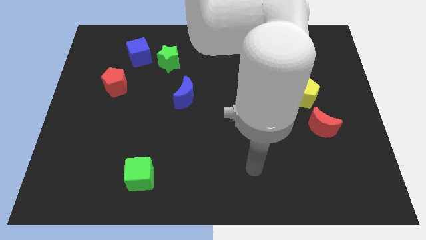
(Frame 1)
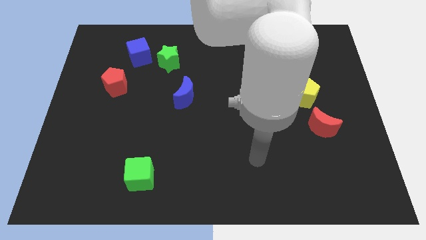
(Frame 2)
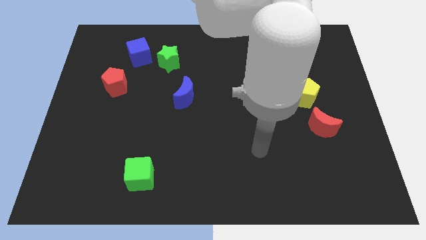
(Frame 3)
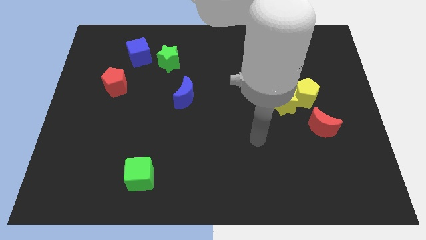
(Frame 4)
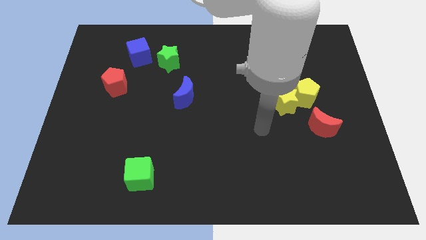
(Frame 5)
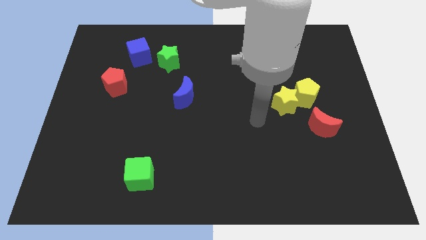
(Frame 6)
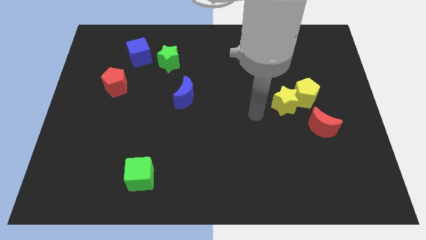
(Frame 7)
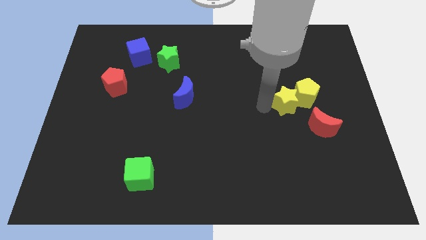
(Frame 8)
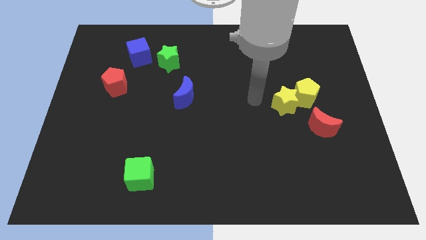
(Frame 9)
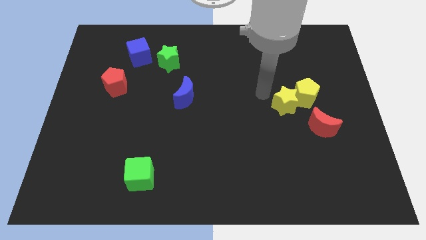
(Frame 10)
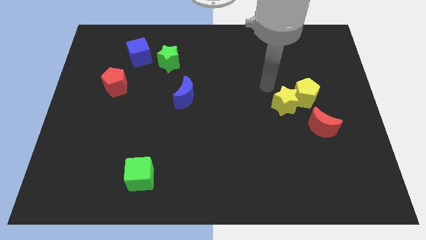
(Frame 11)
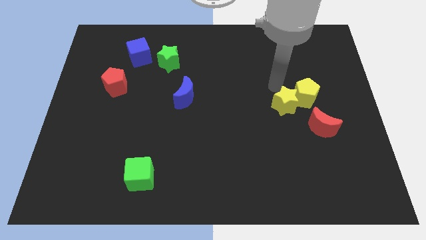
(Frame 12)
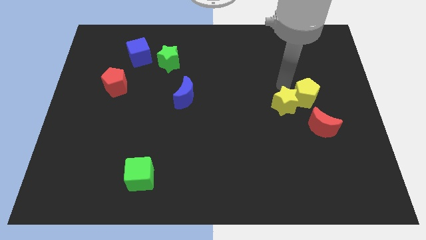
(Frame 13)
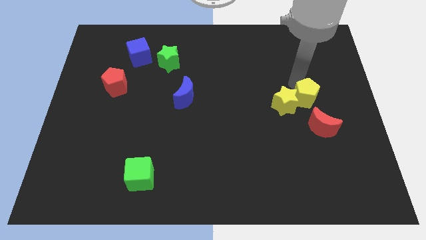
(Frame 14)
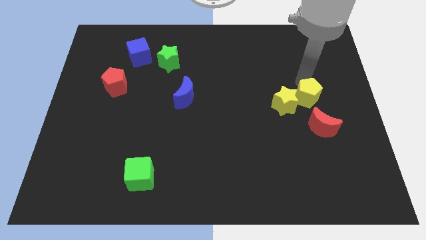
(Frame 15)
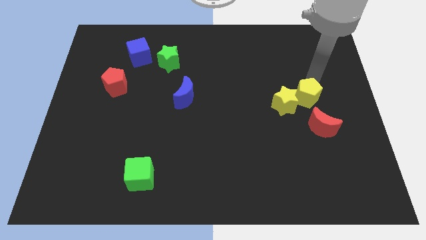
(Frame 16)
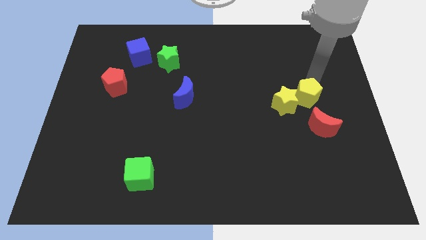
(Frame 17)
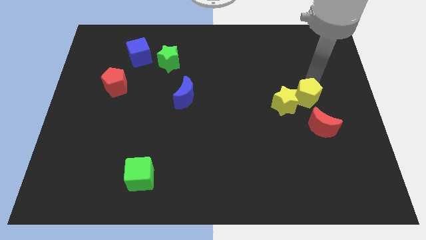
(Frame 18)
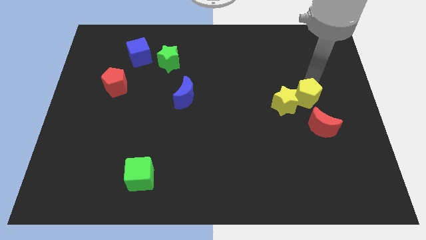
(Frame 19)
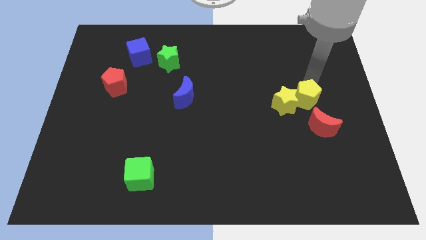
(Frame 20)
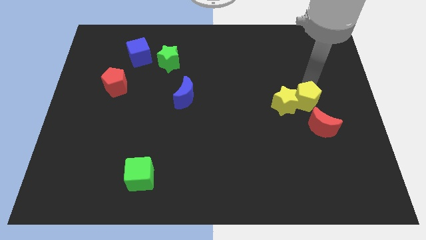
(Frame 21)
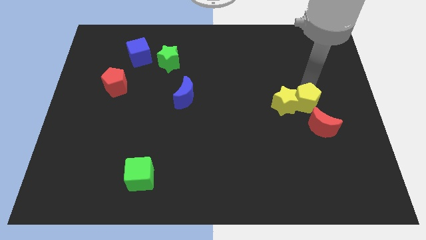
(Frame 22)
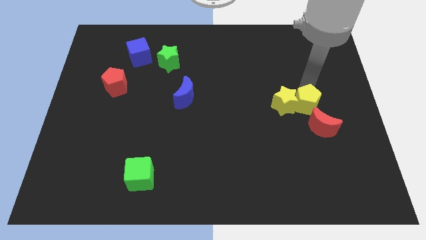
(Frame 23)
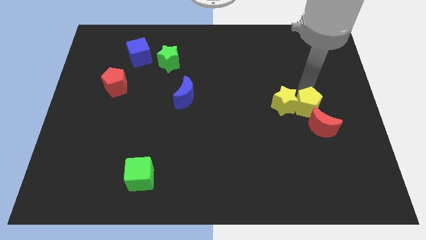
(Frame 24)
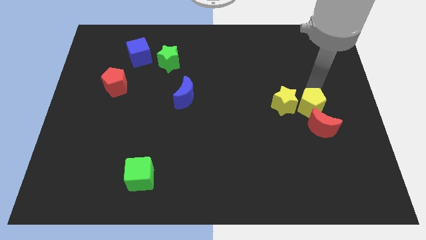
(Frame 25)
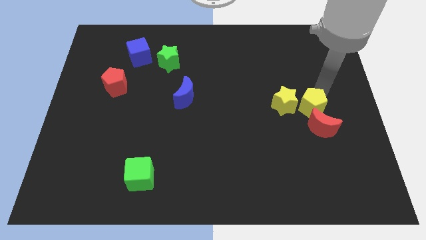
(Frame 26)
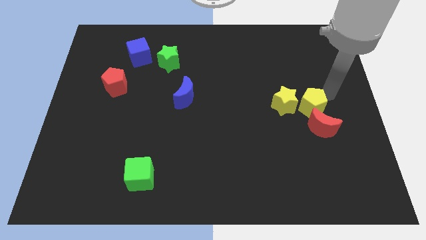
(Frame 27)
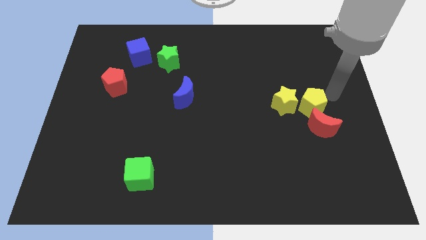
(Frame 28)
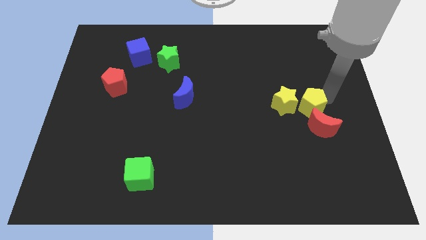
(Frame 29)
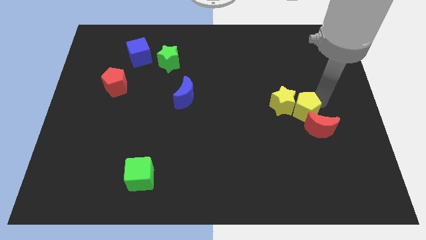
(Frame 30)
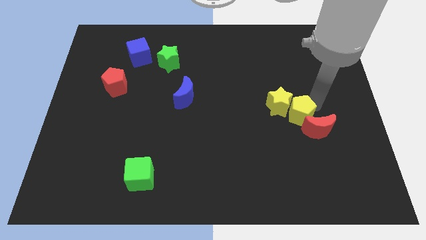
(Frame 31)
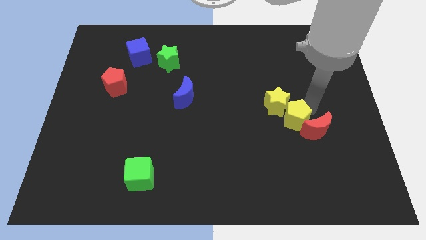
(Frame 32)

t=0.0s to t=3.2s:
slightly move the yellow pentagon downwards and then left

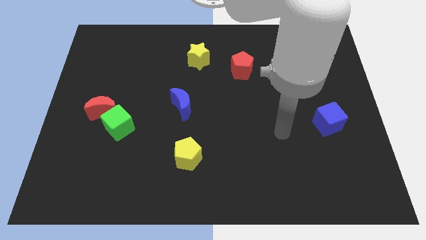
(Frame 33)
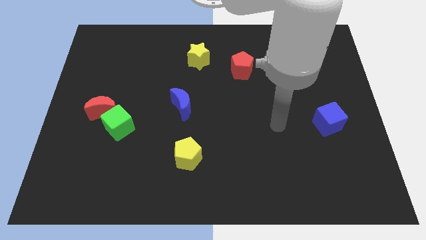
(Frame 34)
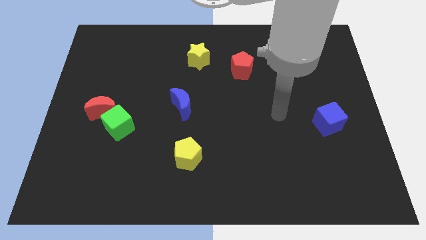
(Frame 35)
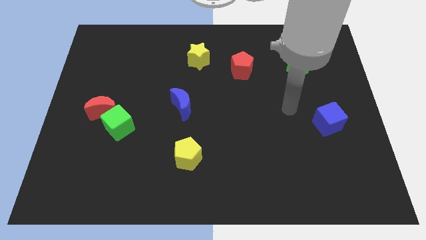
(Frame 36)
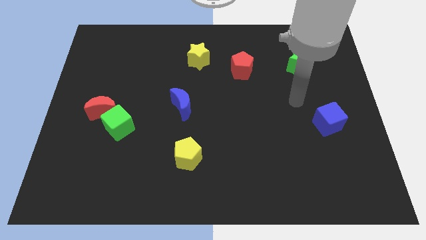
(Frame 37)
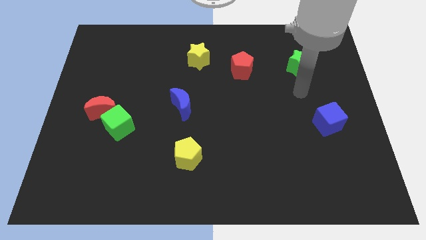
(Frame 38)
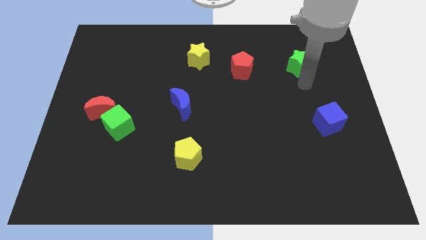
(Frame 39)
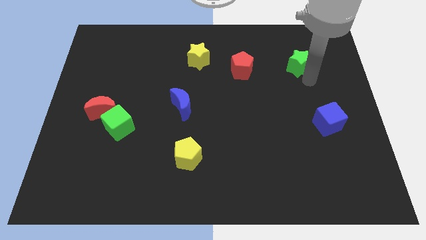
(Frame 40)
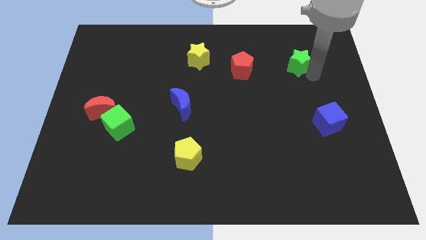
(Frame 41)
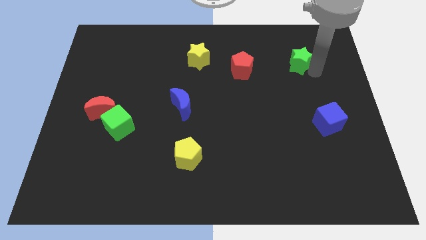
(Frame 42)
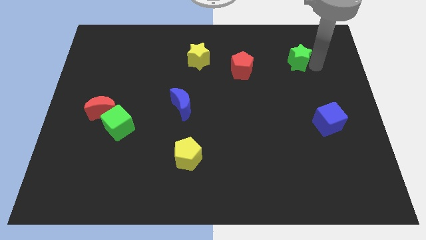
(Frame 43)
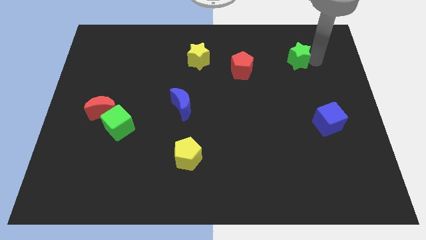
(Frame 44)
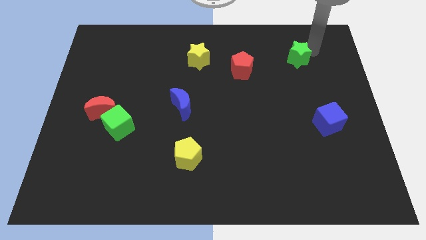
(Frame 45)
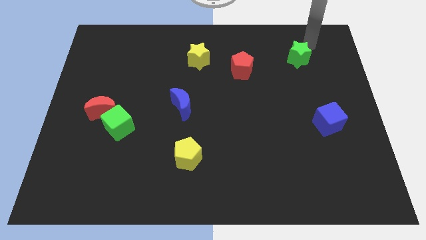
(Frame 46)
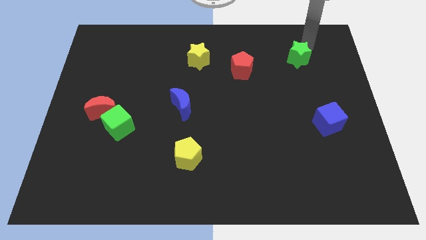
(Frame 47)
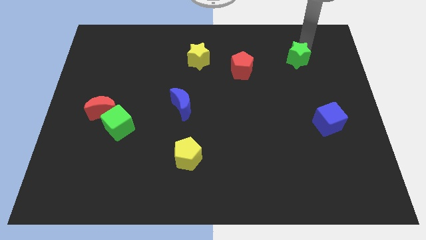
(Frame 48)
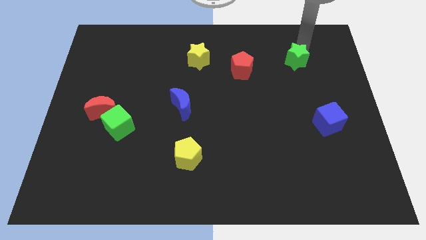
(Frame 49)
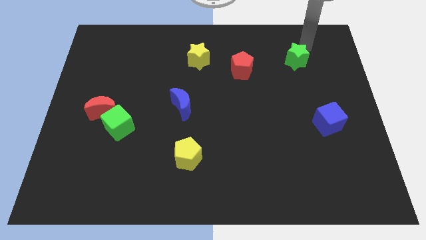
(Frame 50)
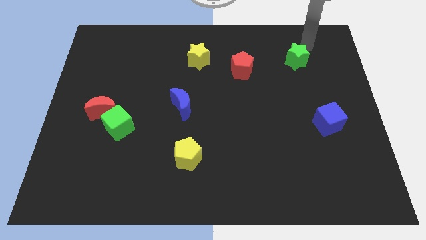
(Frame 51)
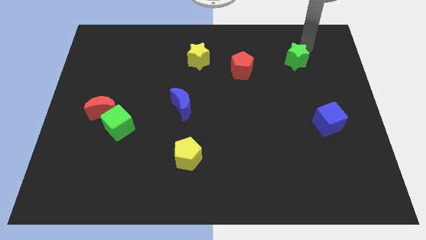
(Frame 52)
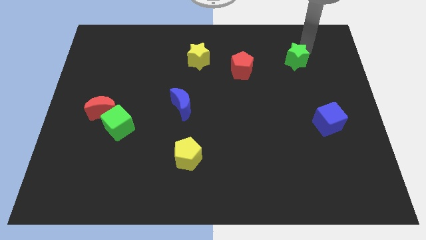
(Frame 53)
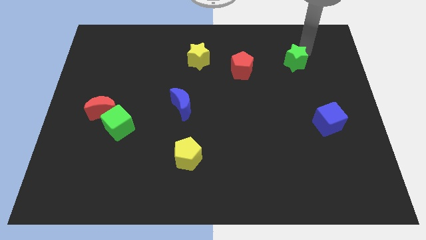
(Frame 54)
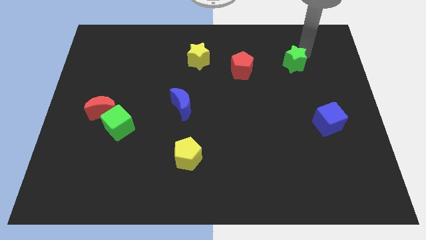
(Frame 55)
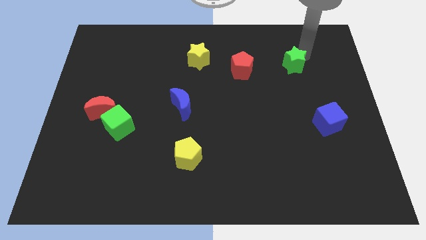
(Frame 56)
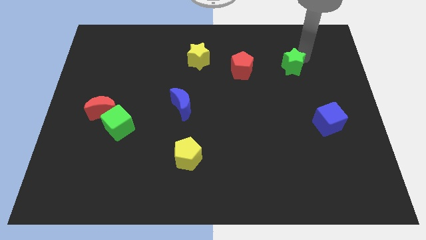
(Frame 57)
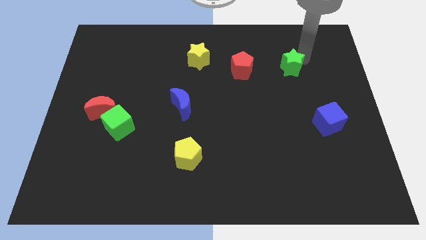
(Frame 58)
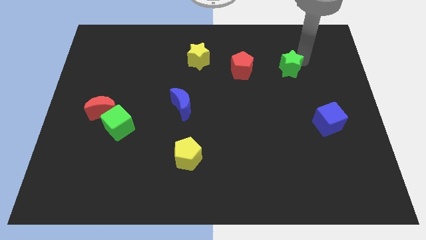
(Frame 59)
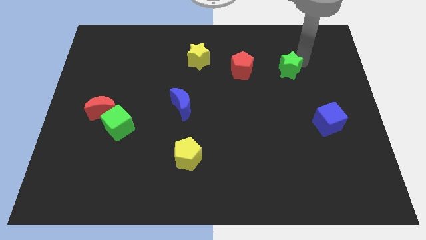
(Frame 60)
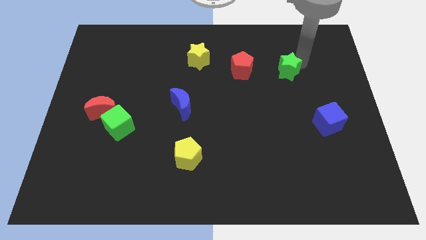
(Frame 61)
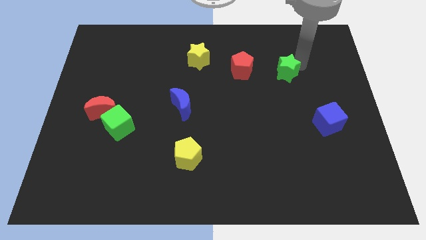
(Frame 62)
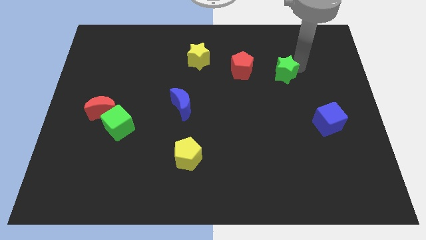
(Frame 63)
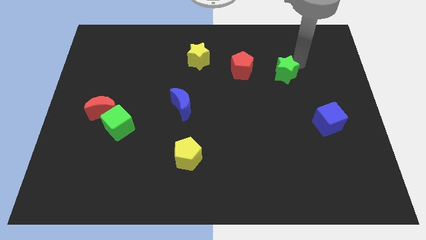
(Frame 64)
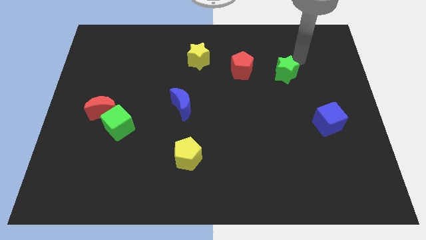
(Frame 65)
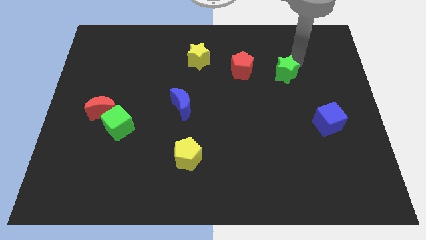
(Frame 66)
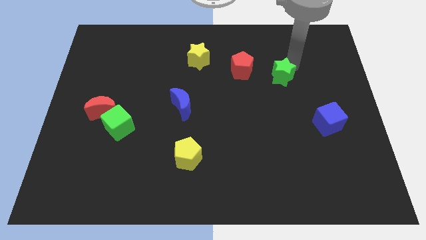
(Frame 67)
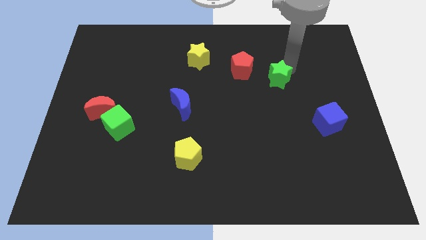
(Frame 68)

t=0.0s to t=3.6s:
move the green star a little downwards and left

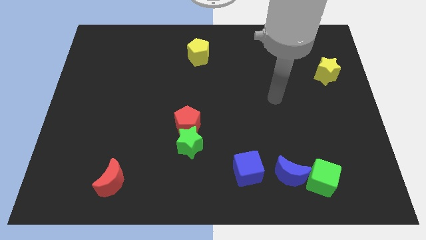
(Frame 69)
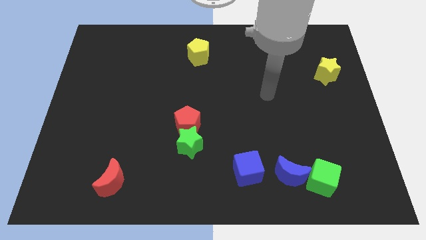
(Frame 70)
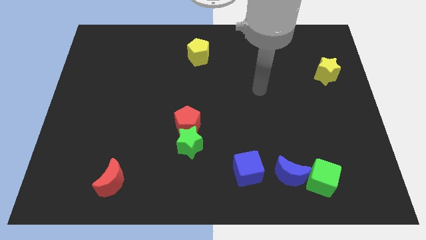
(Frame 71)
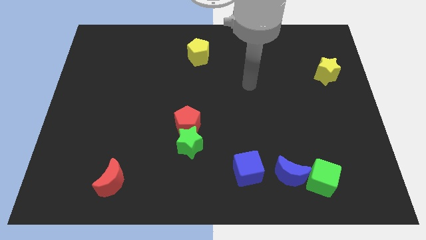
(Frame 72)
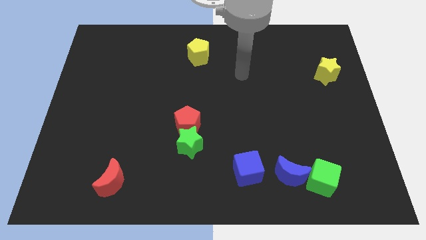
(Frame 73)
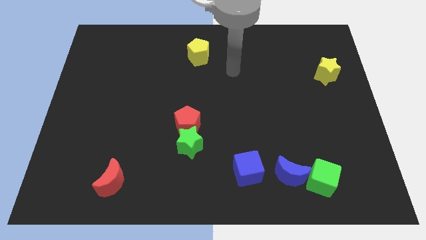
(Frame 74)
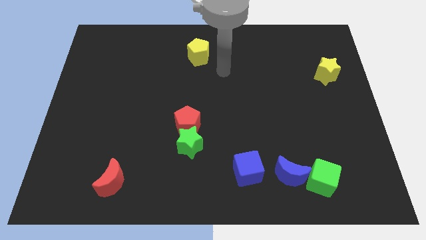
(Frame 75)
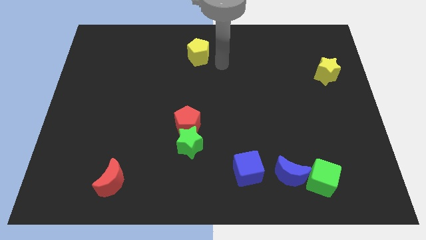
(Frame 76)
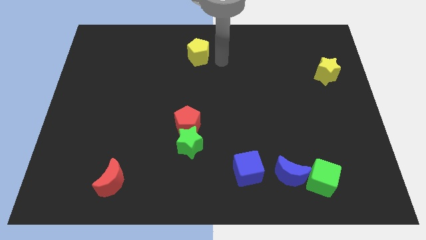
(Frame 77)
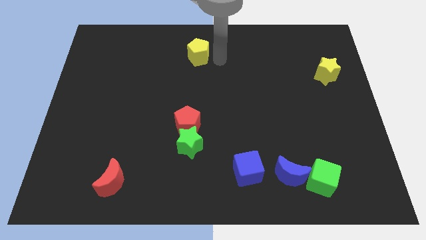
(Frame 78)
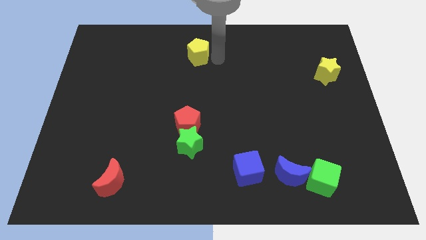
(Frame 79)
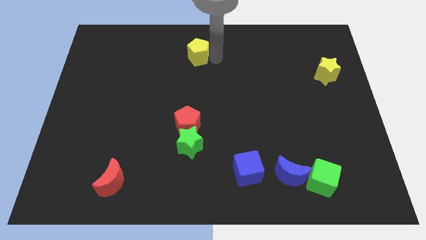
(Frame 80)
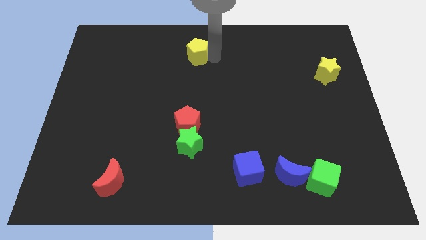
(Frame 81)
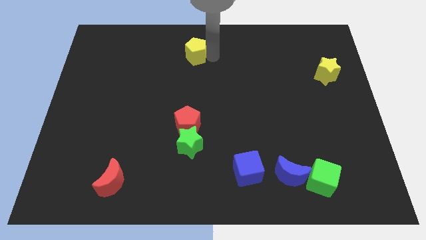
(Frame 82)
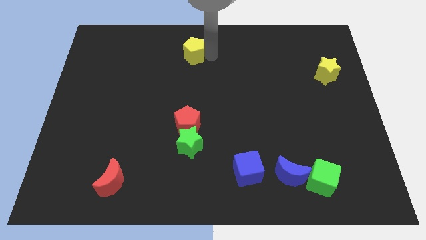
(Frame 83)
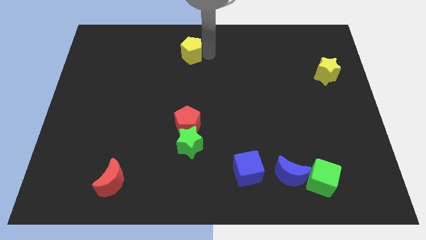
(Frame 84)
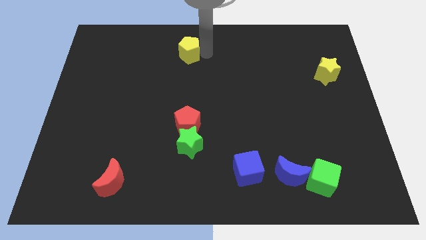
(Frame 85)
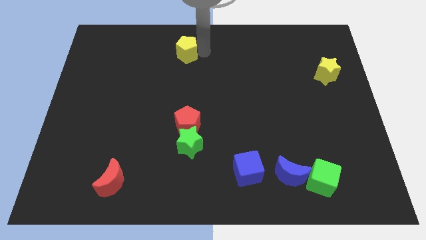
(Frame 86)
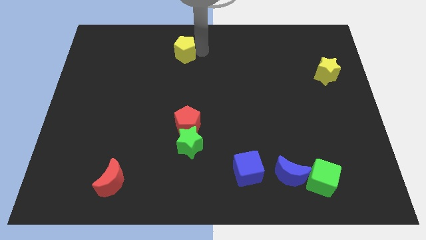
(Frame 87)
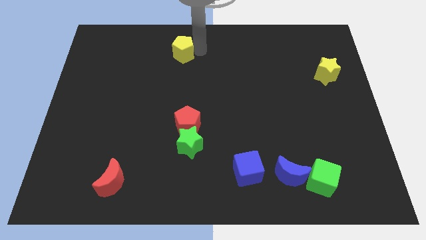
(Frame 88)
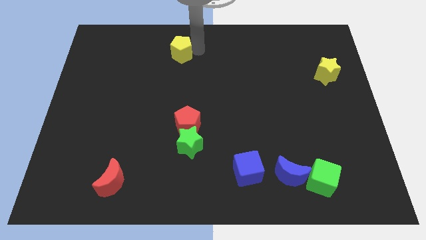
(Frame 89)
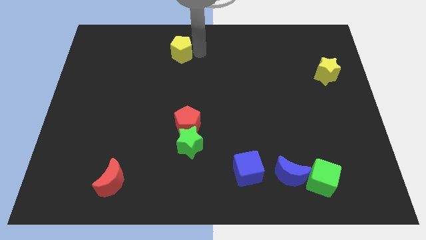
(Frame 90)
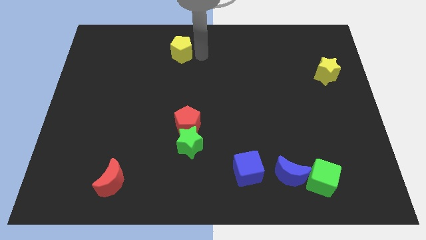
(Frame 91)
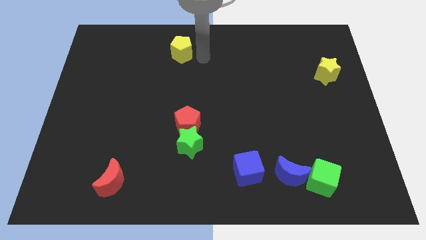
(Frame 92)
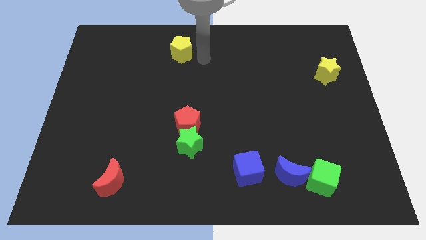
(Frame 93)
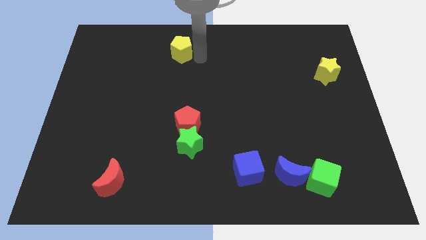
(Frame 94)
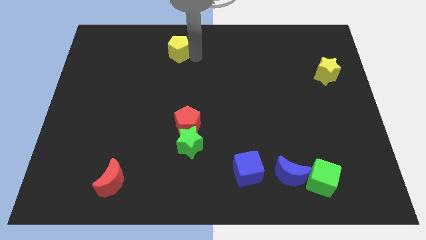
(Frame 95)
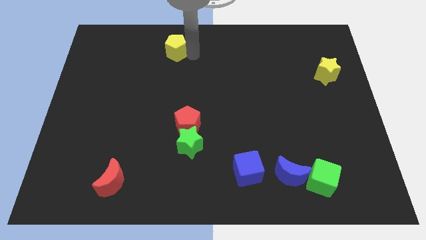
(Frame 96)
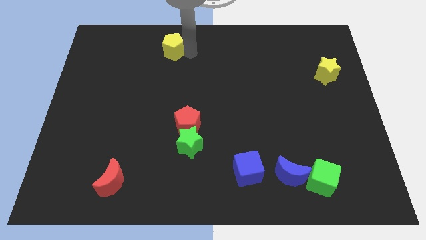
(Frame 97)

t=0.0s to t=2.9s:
slightly push the yellow pentagon to the left
